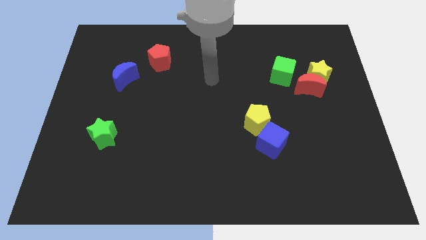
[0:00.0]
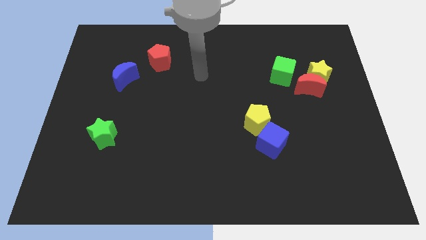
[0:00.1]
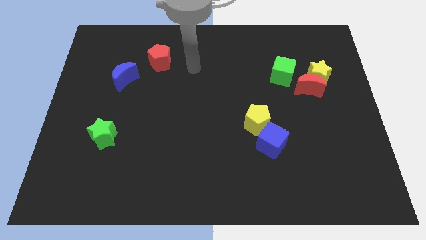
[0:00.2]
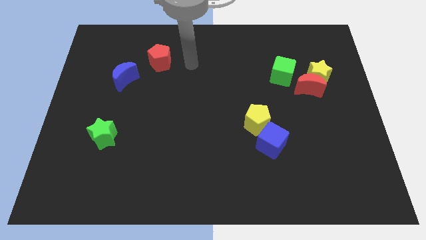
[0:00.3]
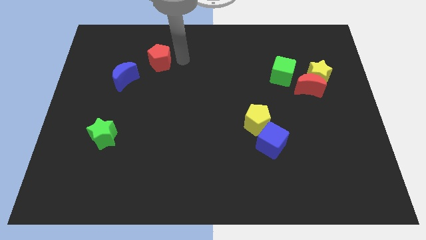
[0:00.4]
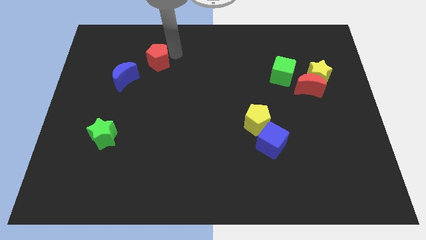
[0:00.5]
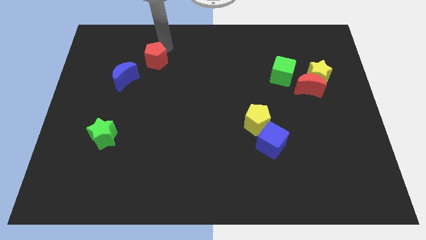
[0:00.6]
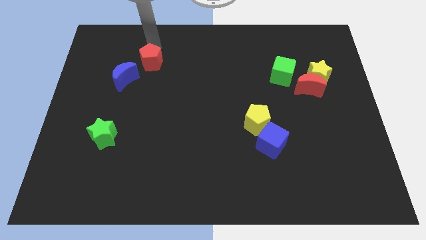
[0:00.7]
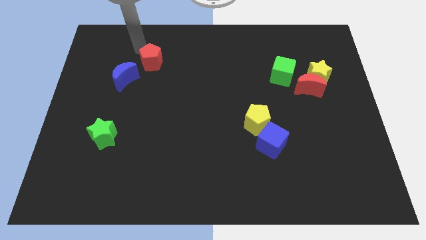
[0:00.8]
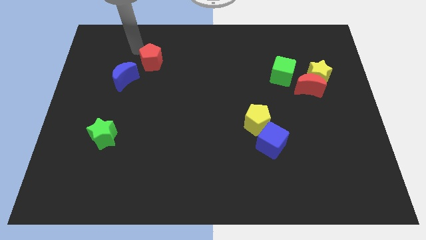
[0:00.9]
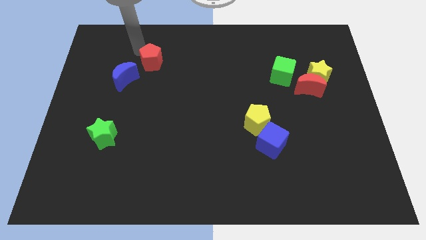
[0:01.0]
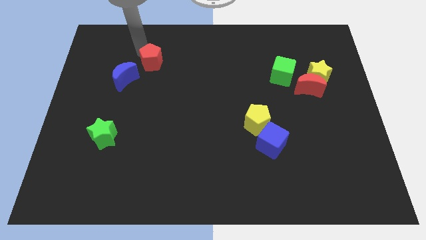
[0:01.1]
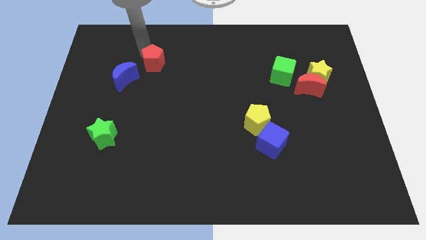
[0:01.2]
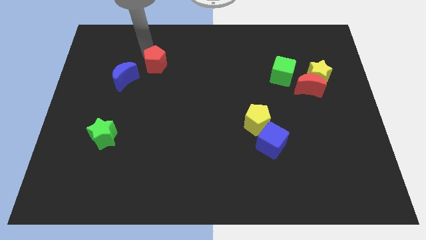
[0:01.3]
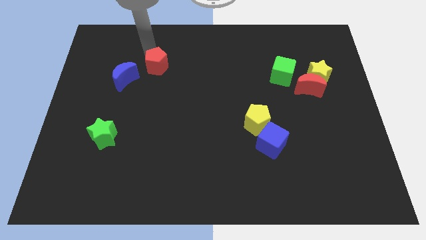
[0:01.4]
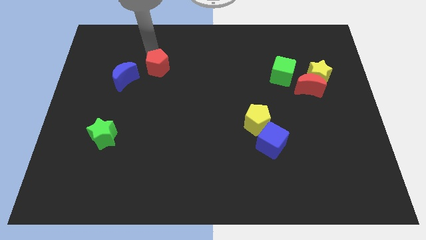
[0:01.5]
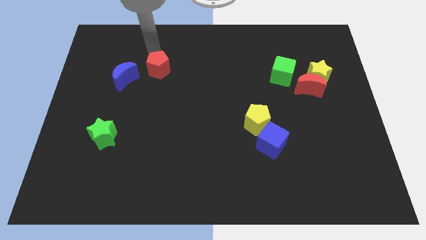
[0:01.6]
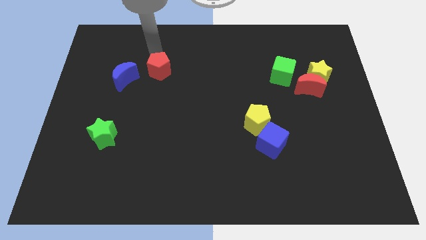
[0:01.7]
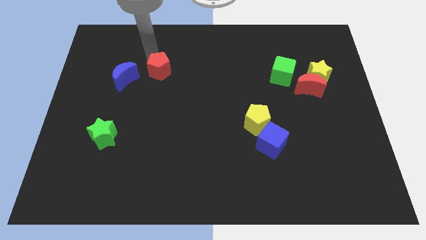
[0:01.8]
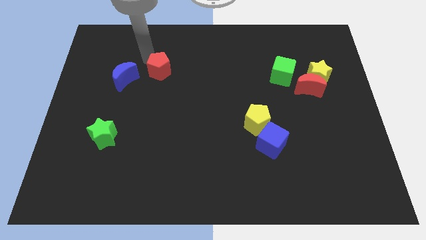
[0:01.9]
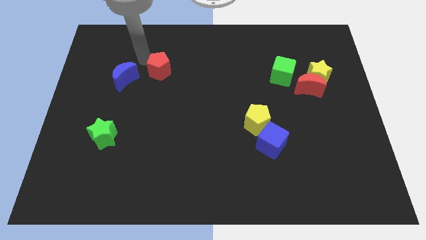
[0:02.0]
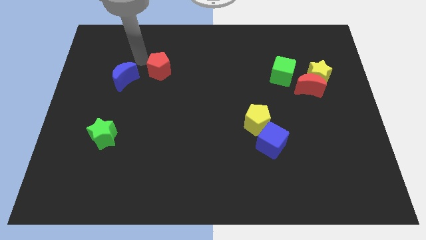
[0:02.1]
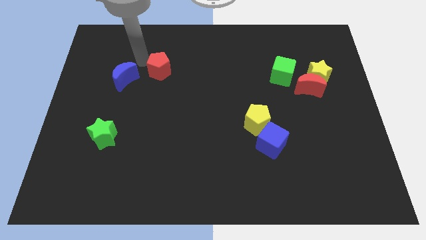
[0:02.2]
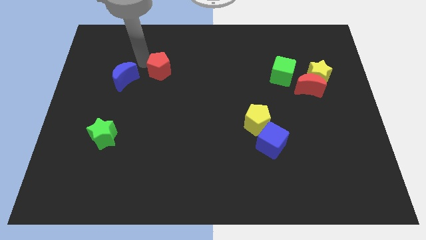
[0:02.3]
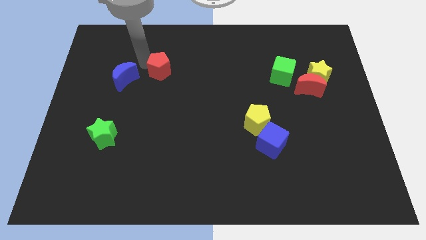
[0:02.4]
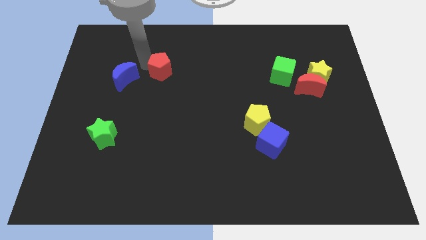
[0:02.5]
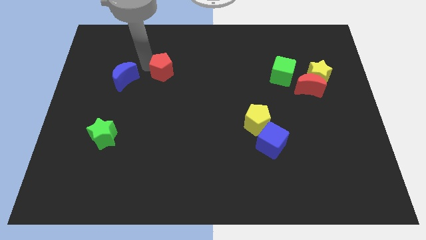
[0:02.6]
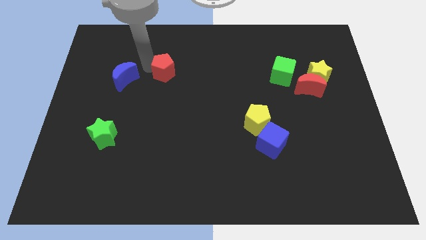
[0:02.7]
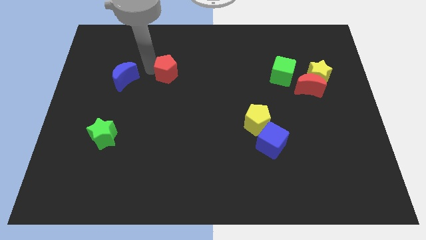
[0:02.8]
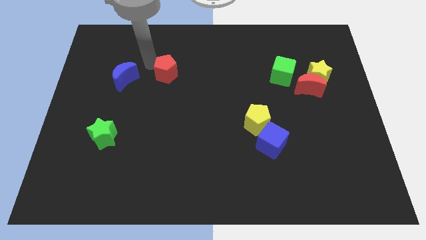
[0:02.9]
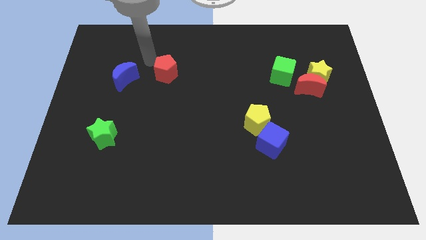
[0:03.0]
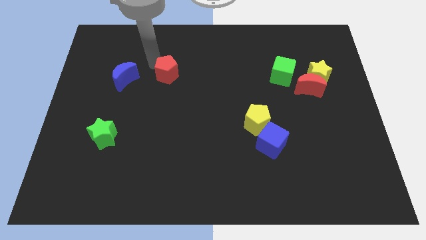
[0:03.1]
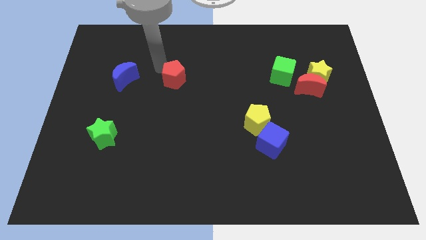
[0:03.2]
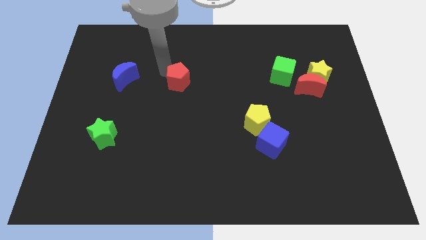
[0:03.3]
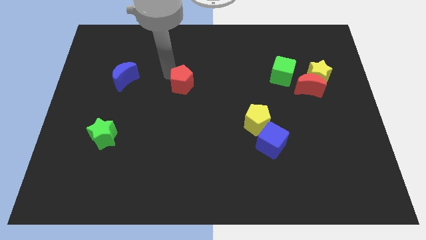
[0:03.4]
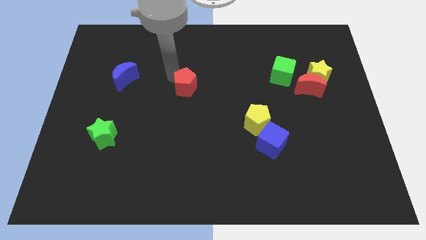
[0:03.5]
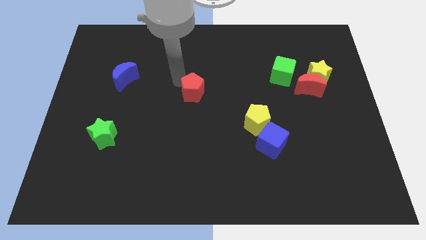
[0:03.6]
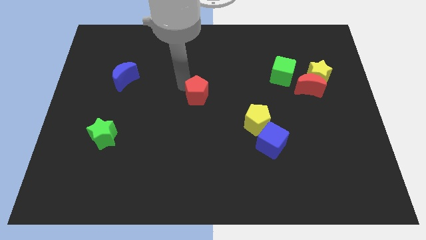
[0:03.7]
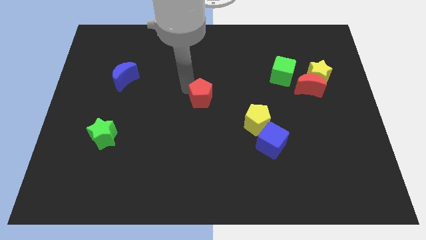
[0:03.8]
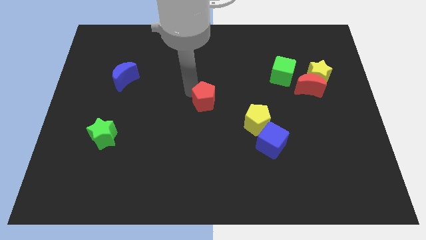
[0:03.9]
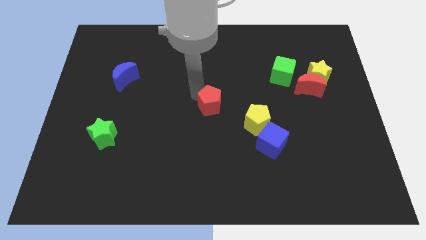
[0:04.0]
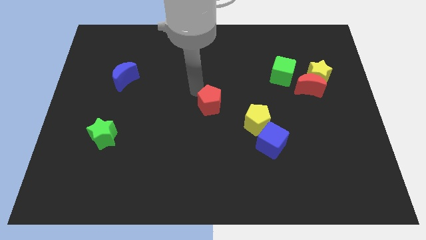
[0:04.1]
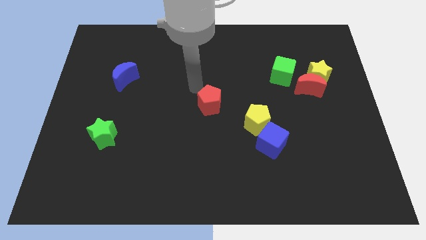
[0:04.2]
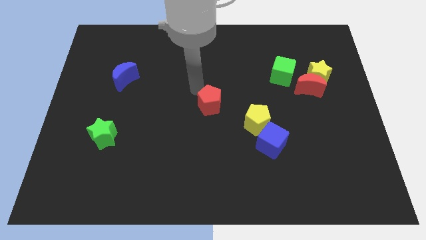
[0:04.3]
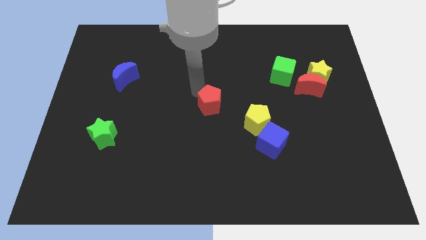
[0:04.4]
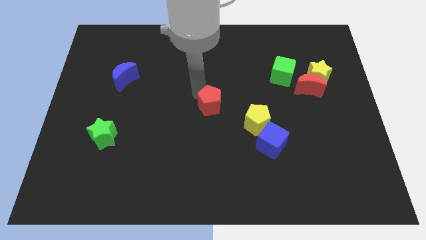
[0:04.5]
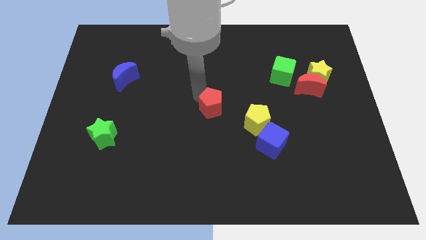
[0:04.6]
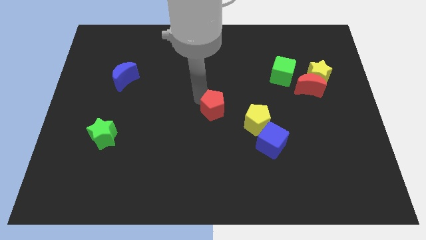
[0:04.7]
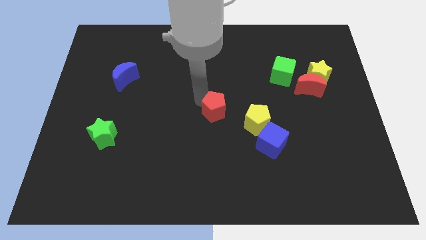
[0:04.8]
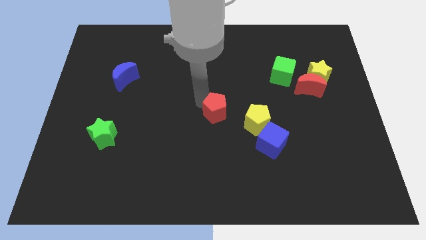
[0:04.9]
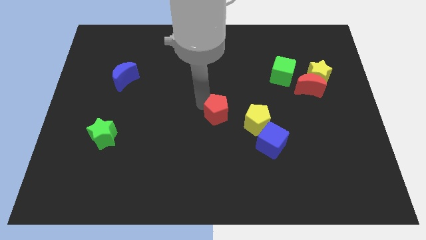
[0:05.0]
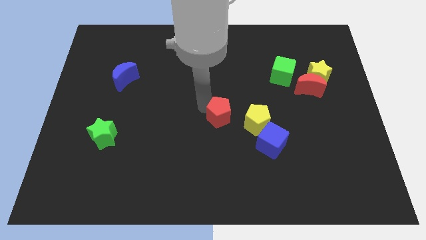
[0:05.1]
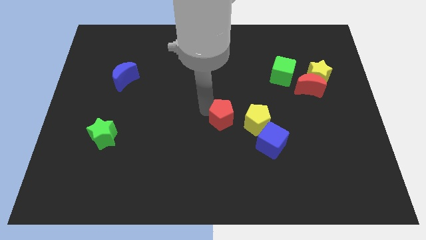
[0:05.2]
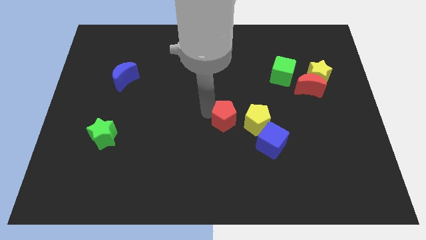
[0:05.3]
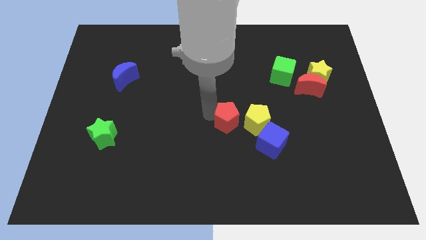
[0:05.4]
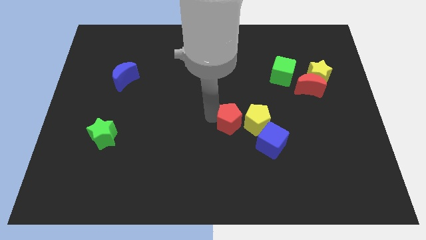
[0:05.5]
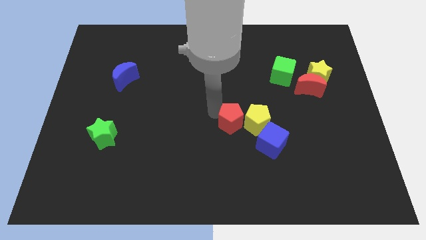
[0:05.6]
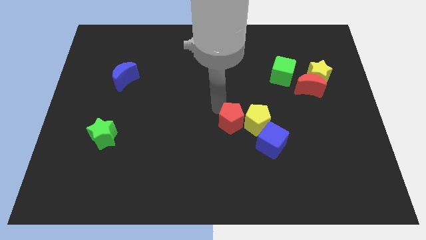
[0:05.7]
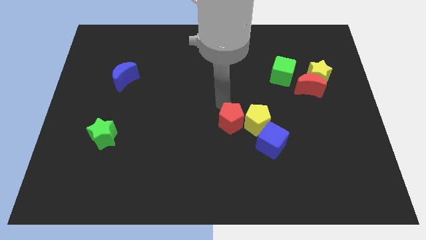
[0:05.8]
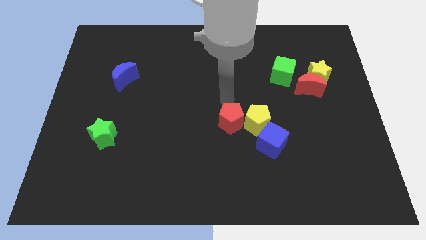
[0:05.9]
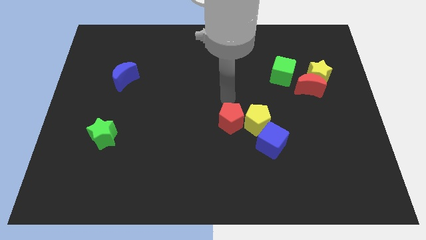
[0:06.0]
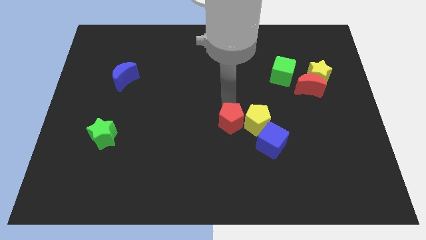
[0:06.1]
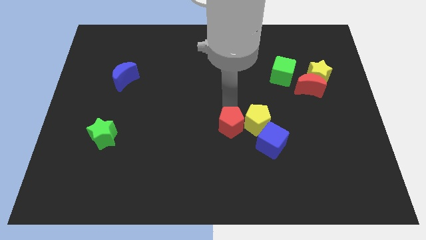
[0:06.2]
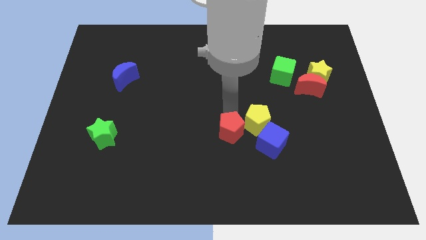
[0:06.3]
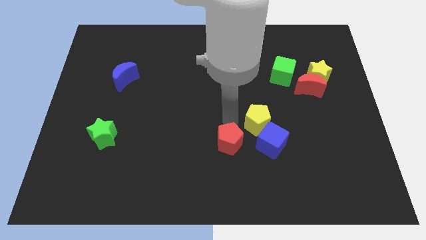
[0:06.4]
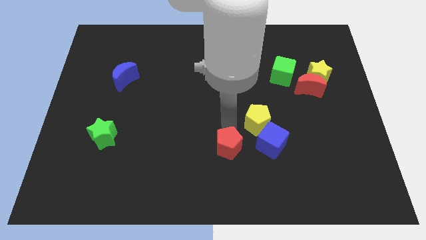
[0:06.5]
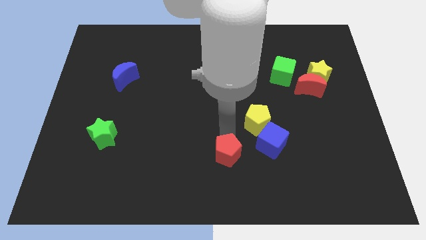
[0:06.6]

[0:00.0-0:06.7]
push the red pentagon to the bottom left of the blue cube
